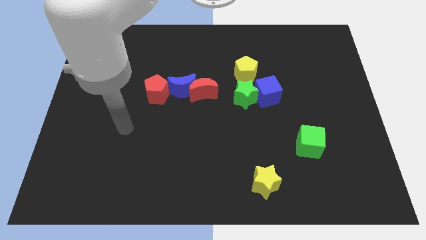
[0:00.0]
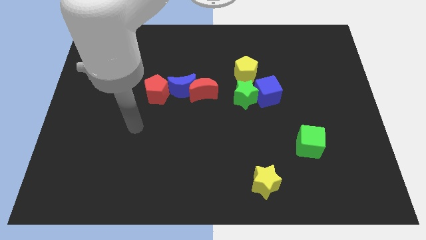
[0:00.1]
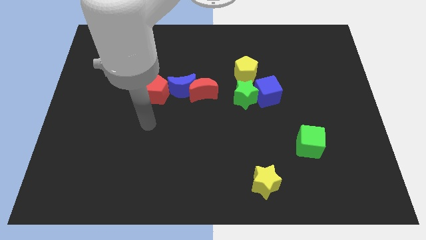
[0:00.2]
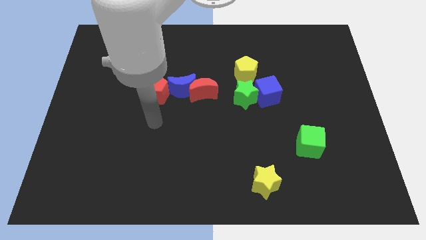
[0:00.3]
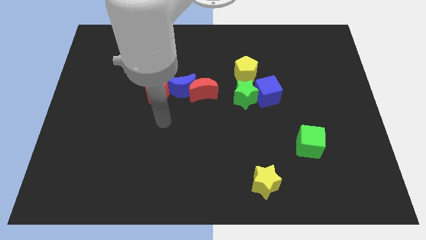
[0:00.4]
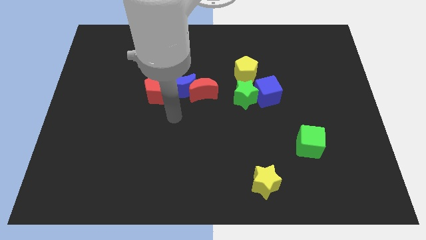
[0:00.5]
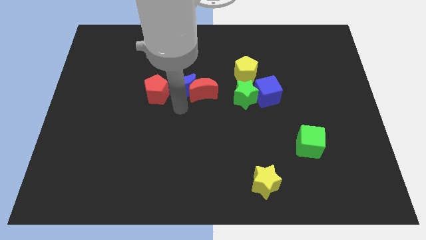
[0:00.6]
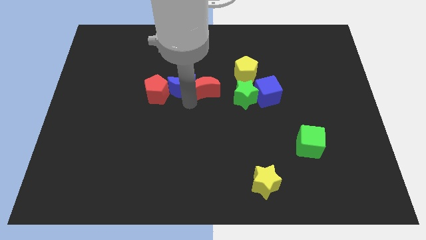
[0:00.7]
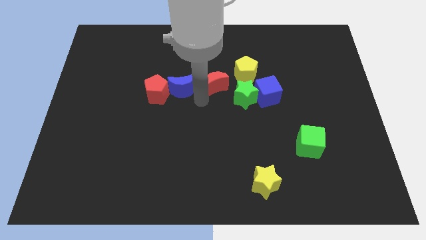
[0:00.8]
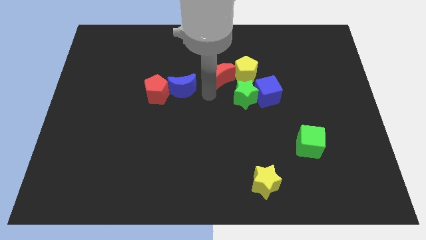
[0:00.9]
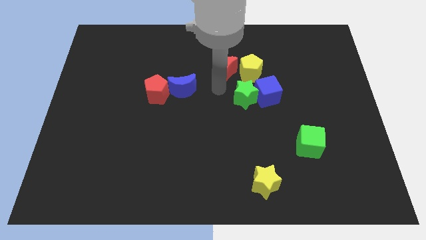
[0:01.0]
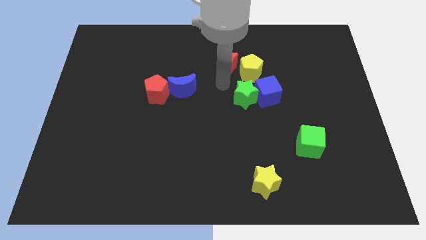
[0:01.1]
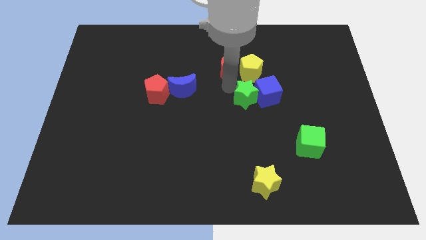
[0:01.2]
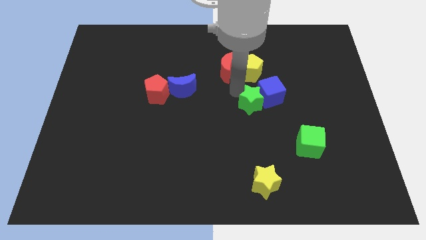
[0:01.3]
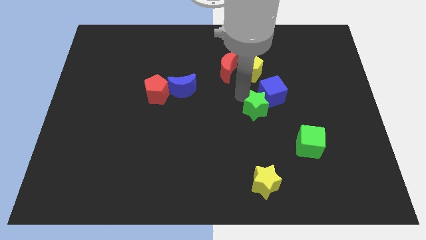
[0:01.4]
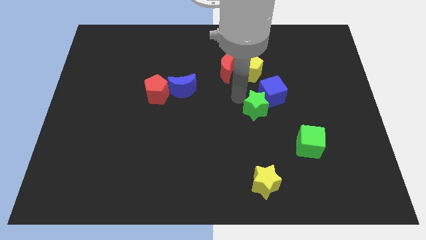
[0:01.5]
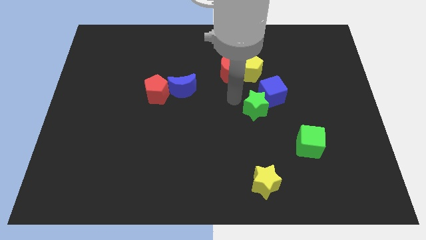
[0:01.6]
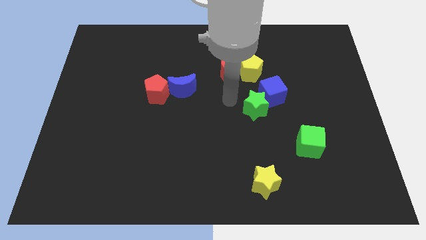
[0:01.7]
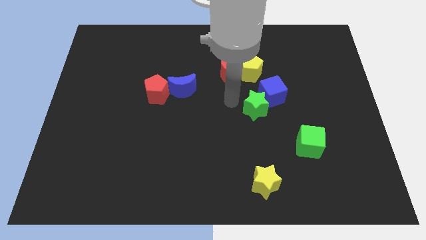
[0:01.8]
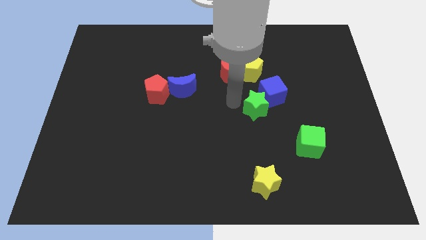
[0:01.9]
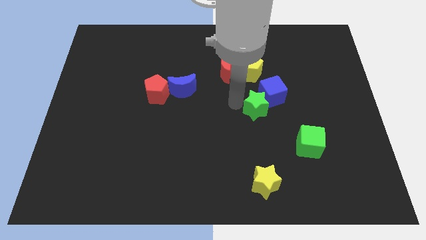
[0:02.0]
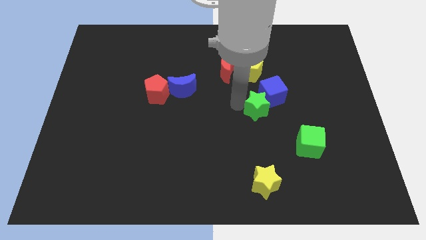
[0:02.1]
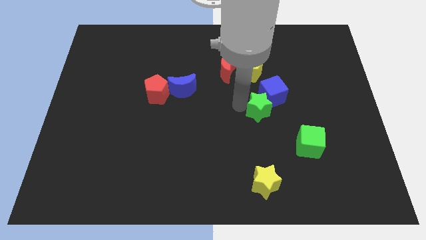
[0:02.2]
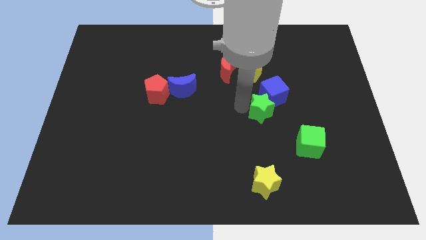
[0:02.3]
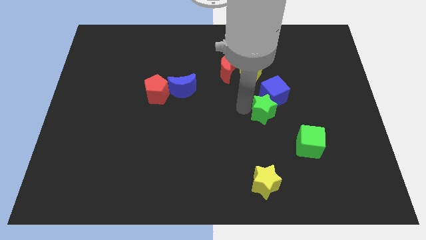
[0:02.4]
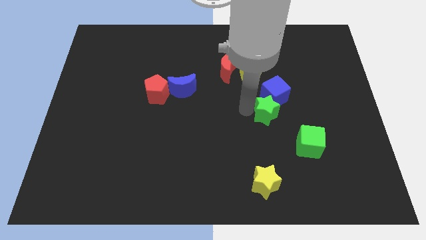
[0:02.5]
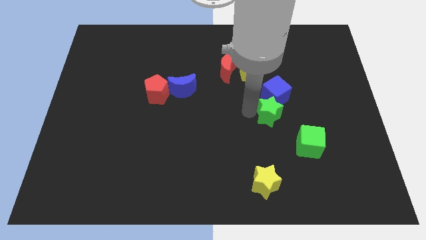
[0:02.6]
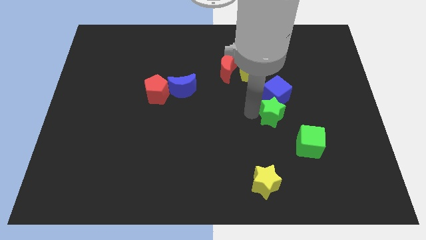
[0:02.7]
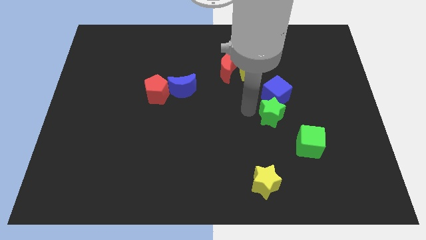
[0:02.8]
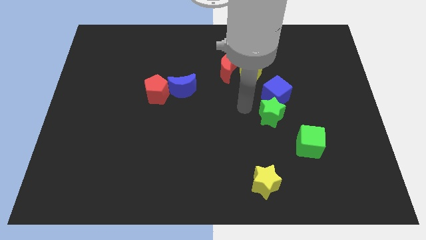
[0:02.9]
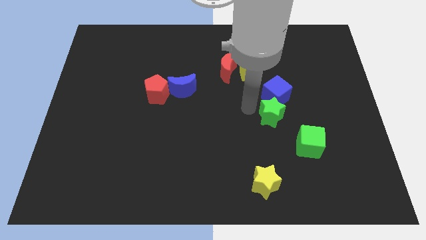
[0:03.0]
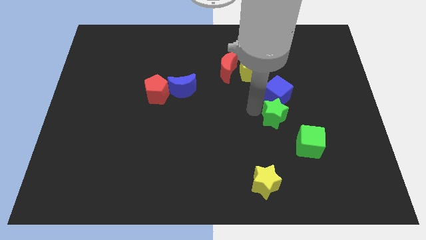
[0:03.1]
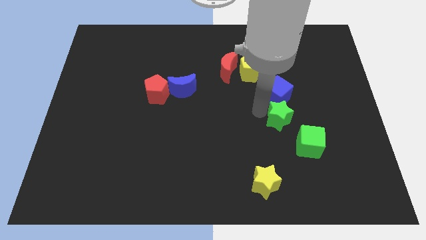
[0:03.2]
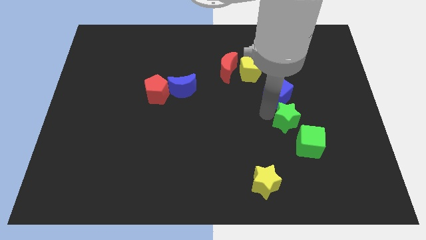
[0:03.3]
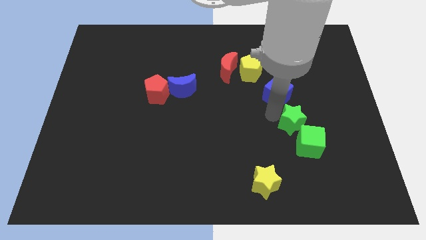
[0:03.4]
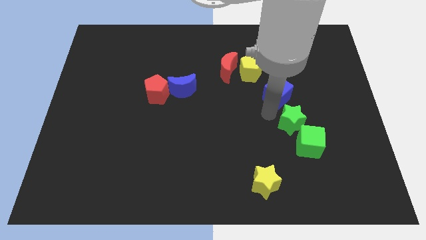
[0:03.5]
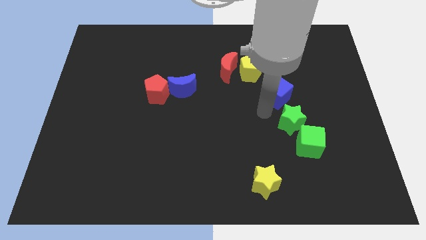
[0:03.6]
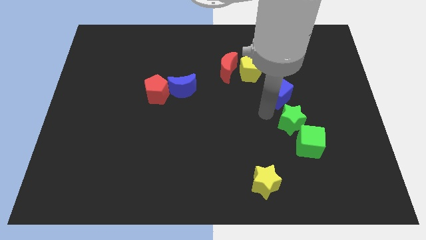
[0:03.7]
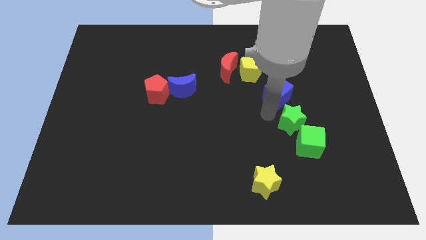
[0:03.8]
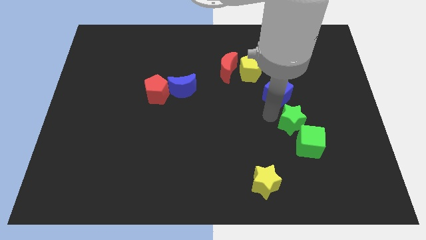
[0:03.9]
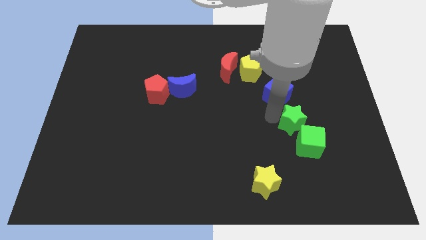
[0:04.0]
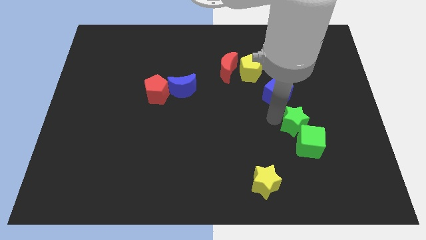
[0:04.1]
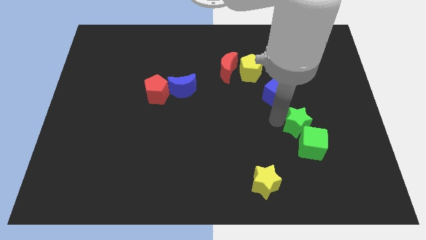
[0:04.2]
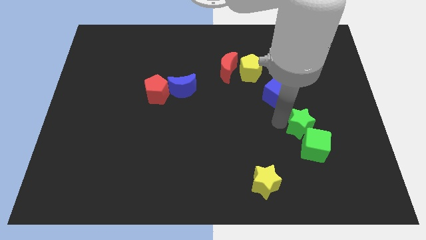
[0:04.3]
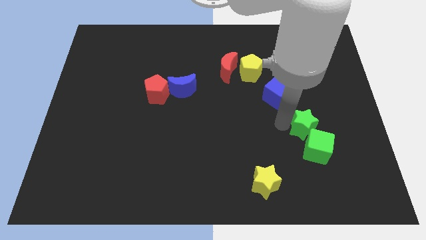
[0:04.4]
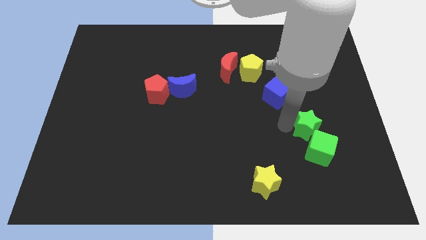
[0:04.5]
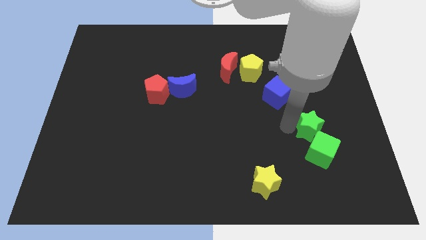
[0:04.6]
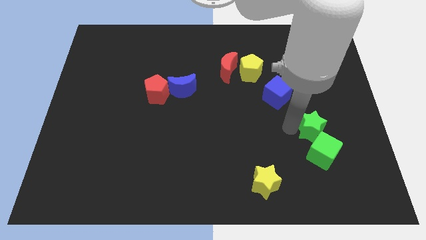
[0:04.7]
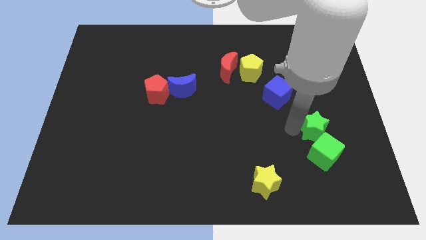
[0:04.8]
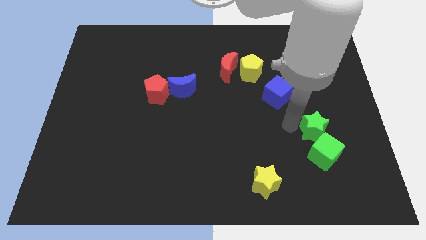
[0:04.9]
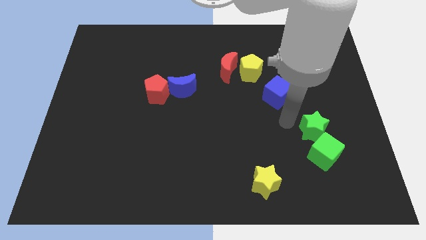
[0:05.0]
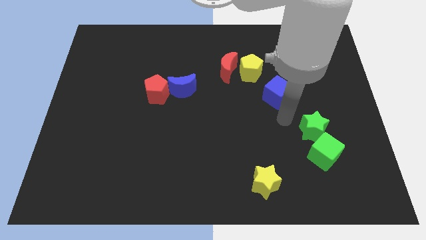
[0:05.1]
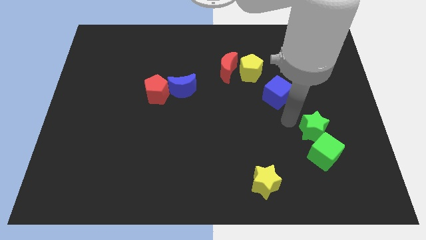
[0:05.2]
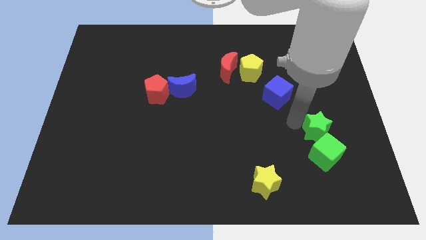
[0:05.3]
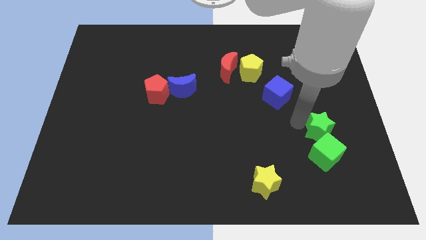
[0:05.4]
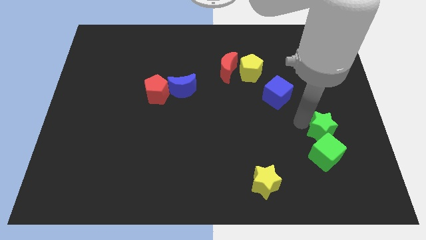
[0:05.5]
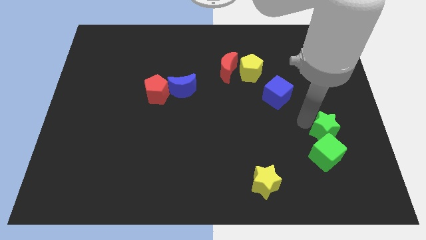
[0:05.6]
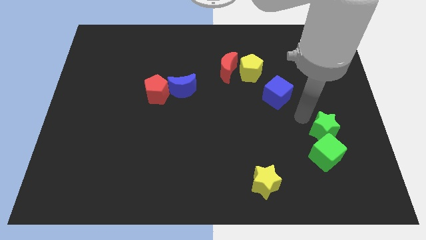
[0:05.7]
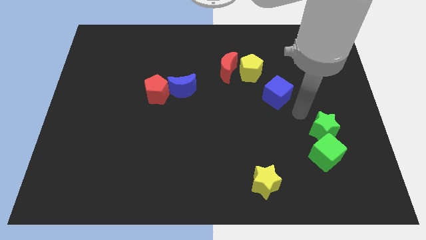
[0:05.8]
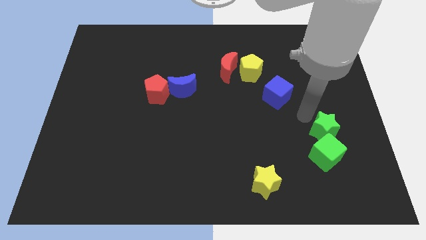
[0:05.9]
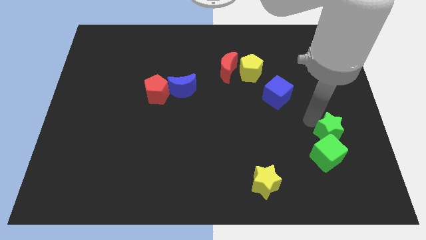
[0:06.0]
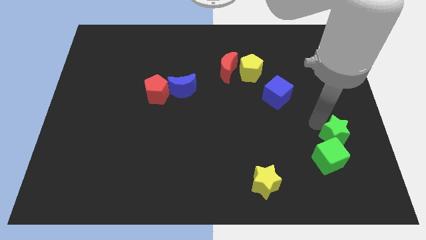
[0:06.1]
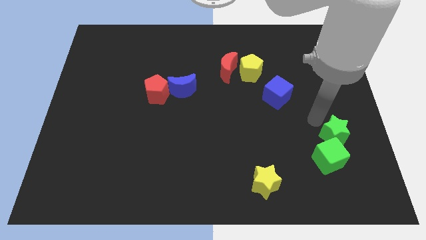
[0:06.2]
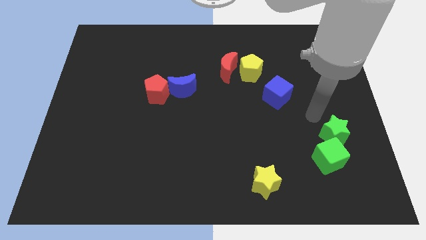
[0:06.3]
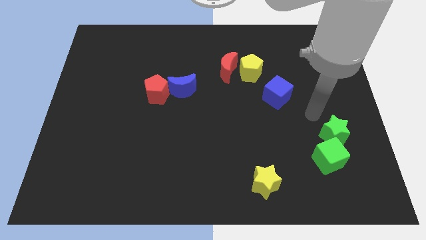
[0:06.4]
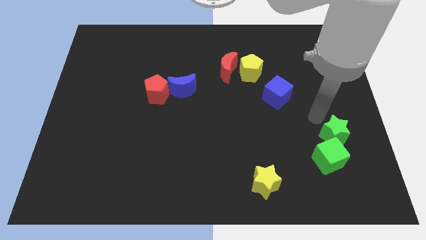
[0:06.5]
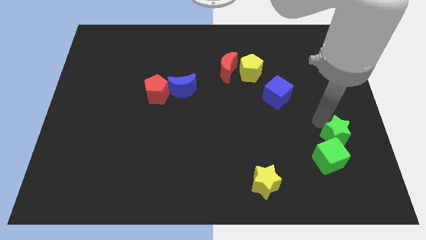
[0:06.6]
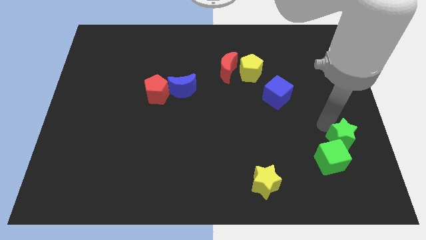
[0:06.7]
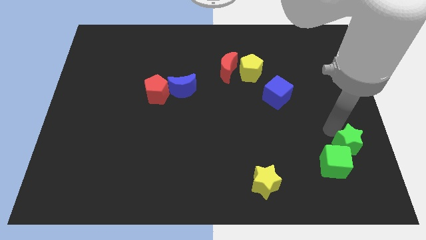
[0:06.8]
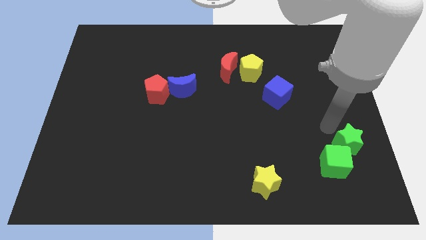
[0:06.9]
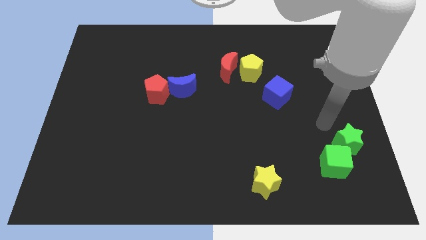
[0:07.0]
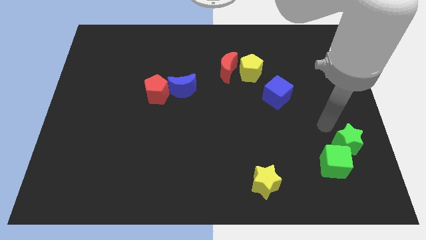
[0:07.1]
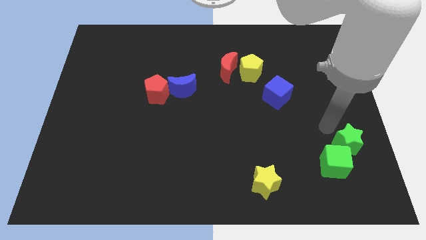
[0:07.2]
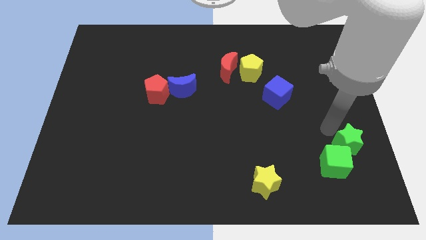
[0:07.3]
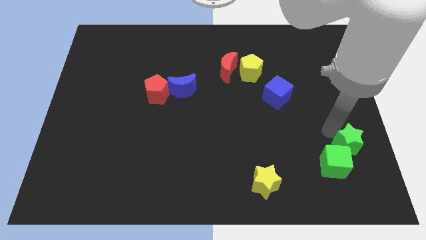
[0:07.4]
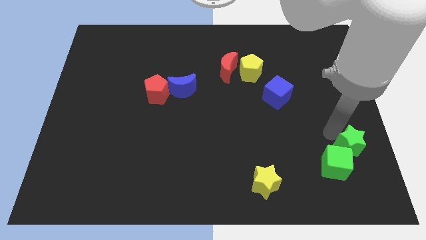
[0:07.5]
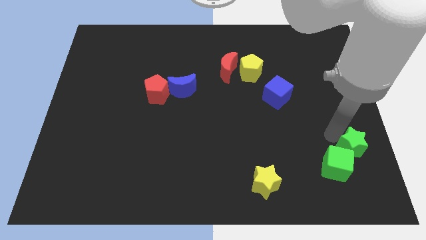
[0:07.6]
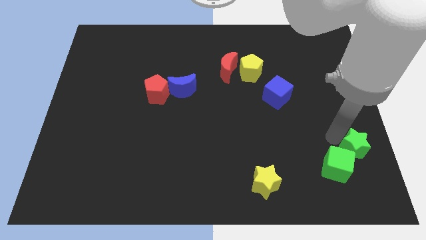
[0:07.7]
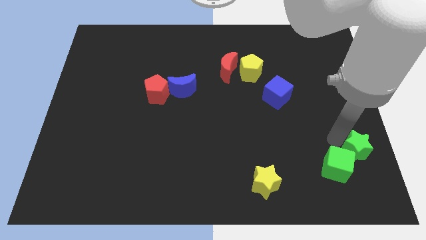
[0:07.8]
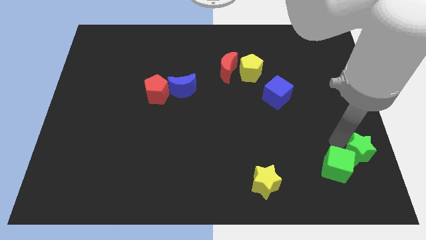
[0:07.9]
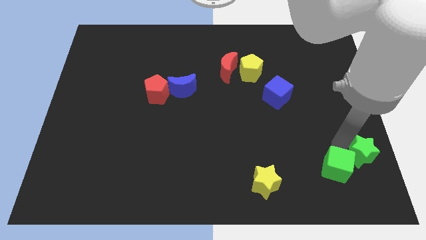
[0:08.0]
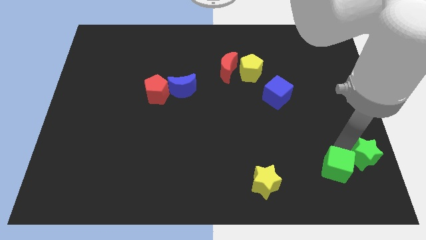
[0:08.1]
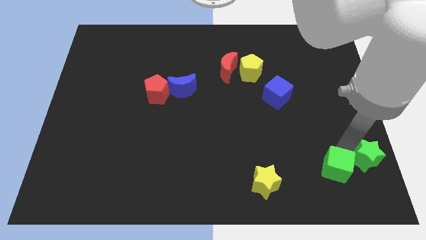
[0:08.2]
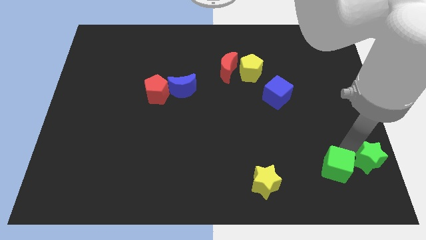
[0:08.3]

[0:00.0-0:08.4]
put the green star to the bottom right of the board
